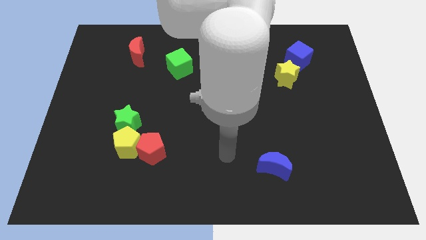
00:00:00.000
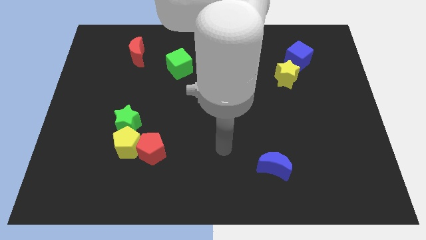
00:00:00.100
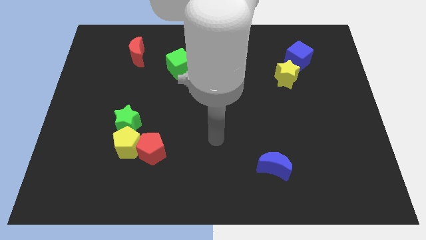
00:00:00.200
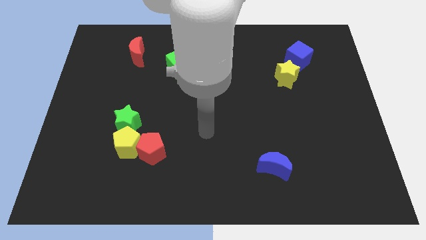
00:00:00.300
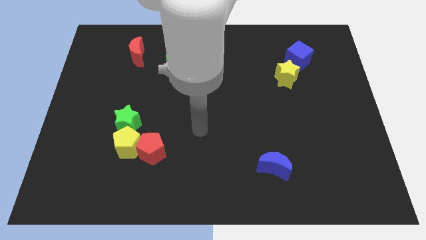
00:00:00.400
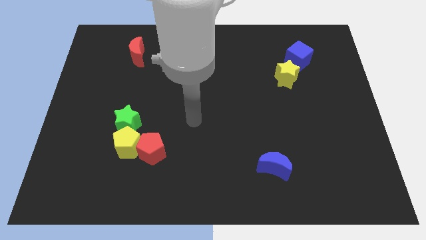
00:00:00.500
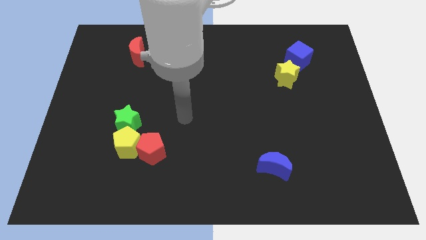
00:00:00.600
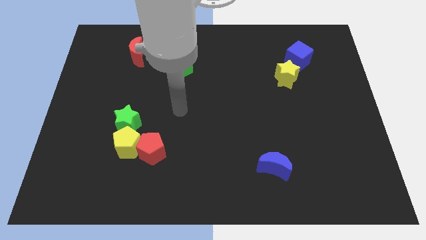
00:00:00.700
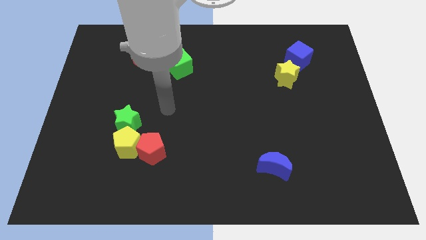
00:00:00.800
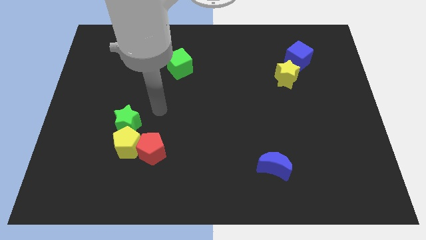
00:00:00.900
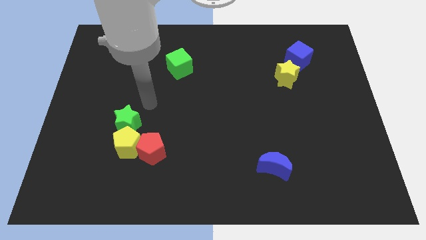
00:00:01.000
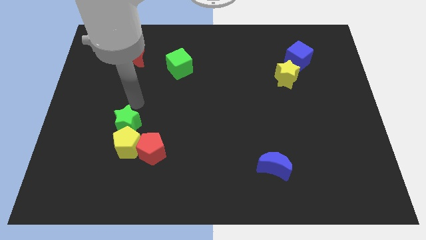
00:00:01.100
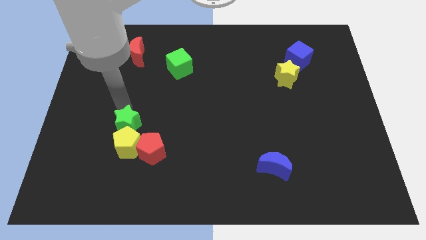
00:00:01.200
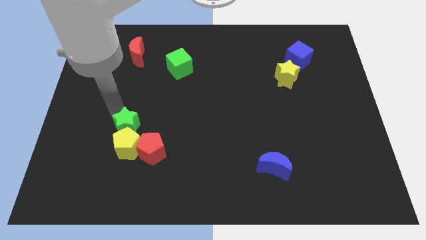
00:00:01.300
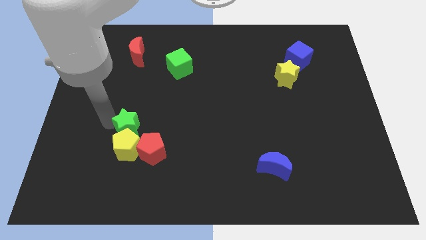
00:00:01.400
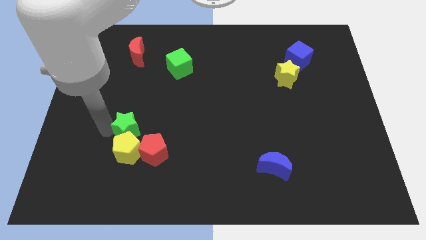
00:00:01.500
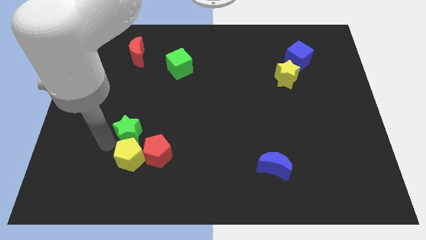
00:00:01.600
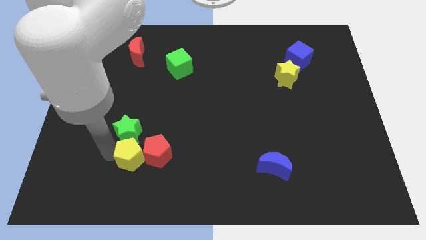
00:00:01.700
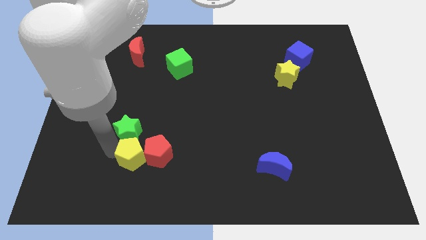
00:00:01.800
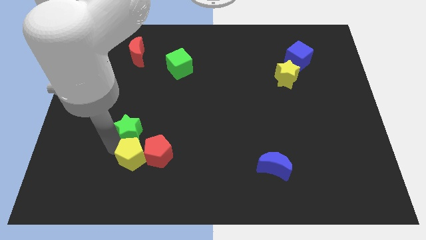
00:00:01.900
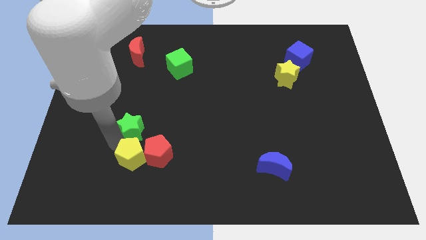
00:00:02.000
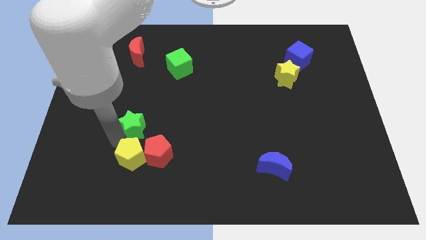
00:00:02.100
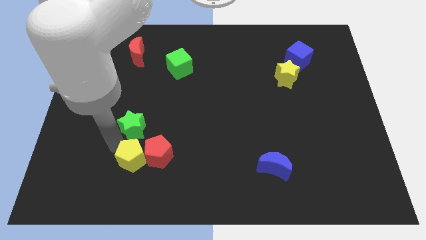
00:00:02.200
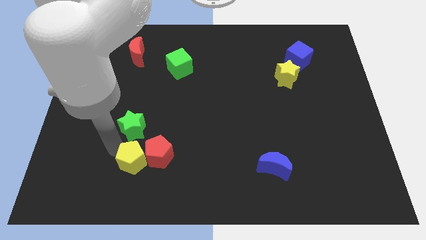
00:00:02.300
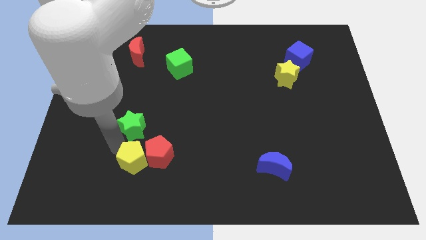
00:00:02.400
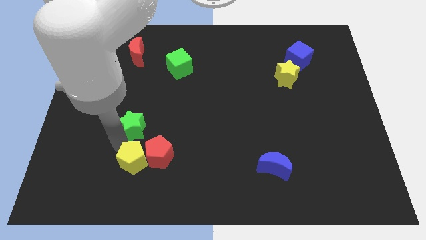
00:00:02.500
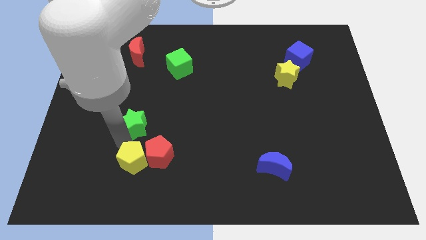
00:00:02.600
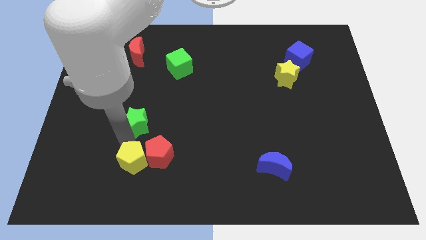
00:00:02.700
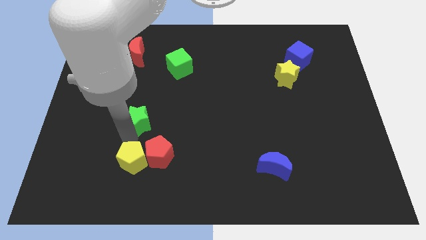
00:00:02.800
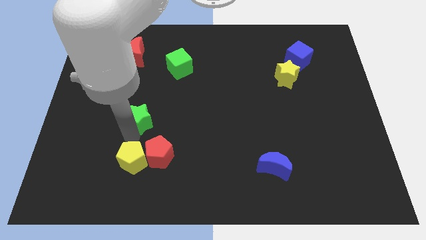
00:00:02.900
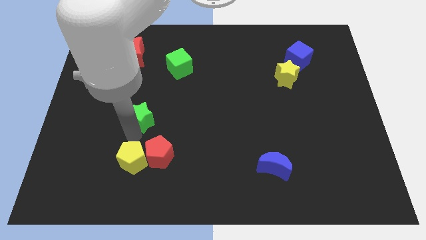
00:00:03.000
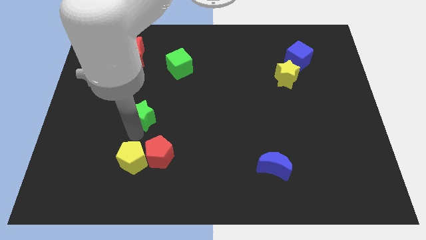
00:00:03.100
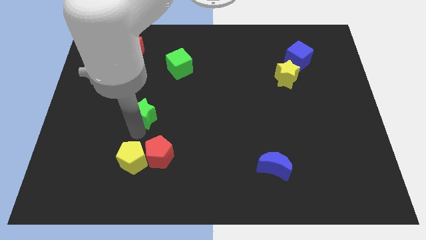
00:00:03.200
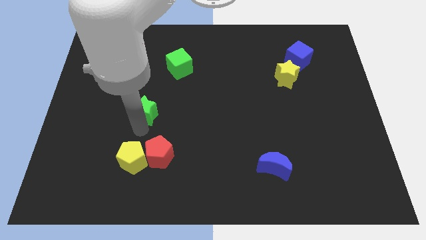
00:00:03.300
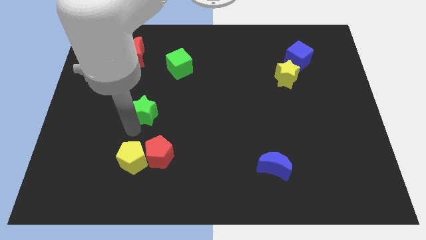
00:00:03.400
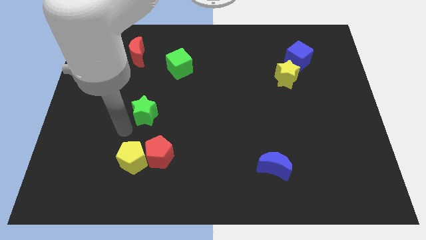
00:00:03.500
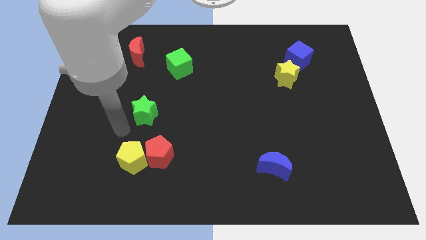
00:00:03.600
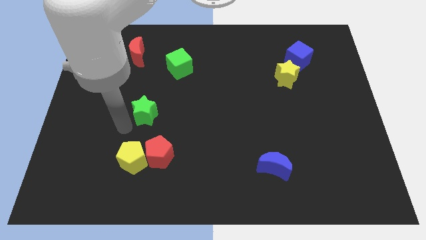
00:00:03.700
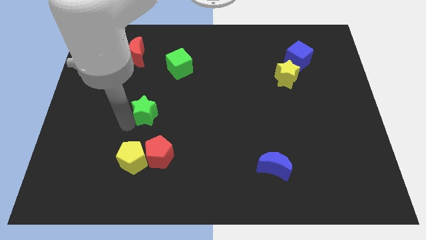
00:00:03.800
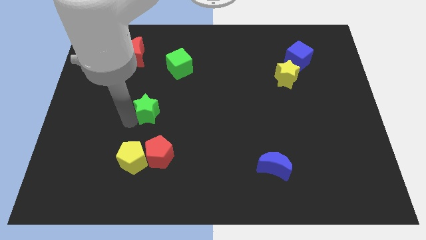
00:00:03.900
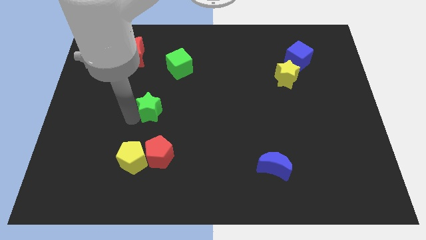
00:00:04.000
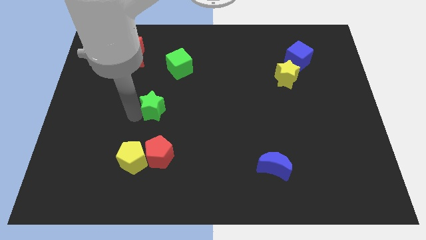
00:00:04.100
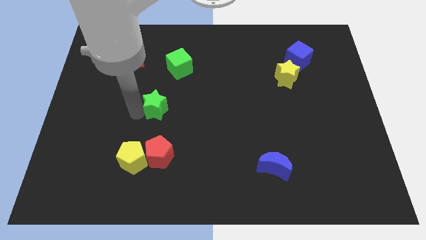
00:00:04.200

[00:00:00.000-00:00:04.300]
slightly slide the green star up and right diagonally

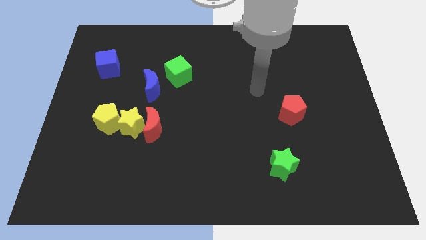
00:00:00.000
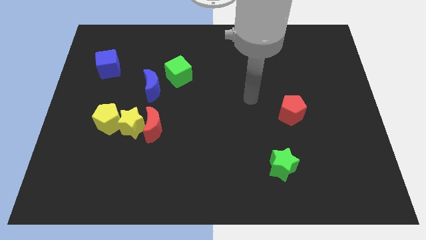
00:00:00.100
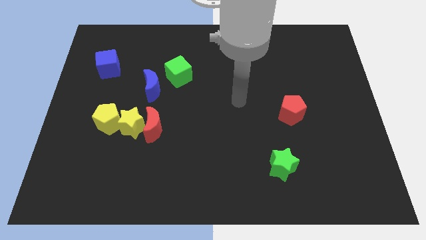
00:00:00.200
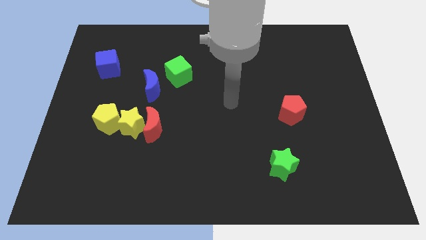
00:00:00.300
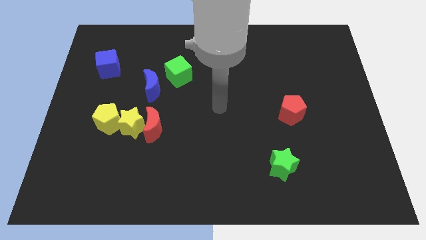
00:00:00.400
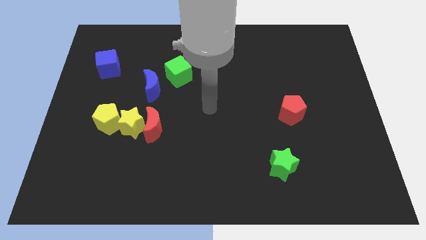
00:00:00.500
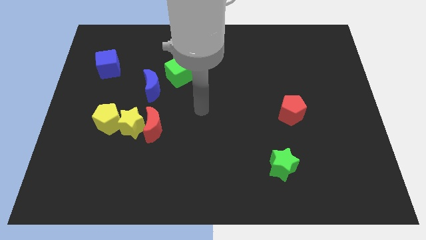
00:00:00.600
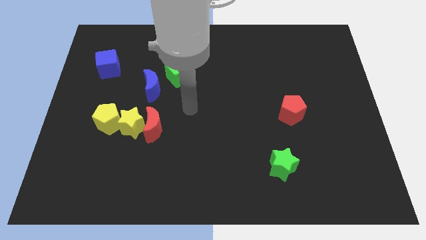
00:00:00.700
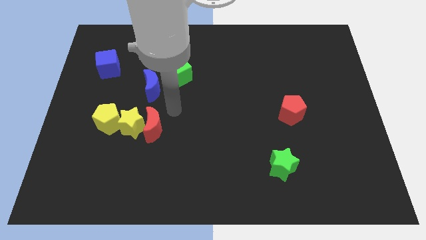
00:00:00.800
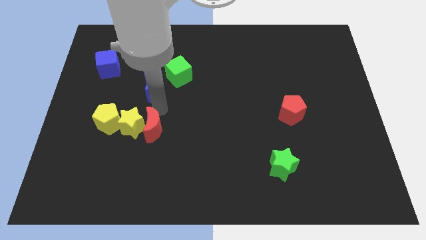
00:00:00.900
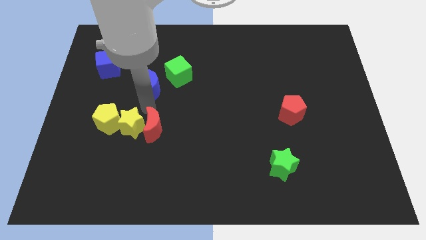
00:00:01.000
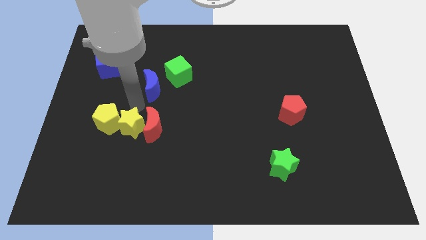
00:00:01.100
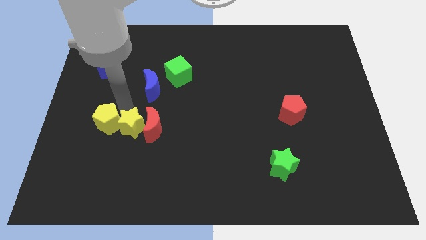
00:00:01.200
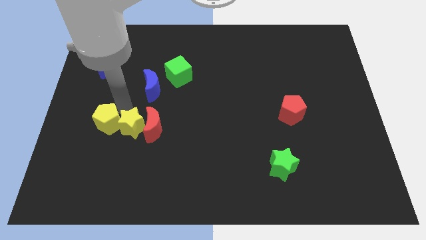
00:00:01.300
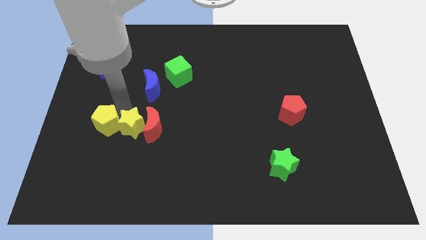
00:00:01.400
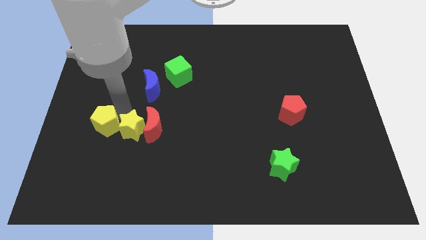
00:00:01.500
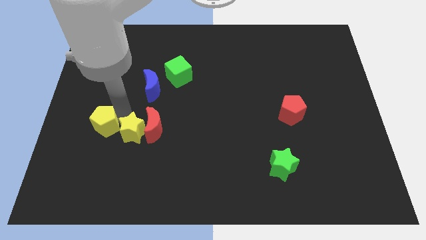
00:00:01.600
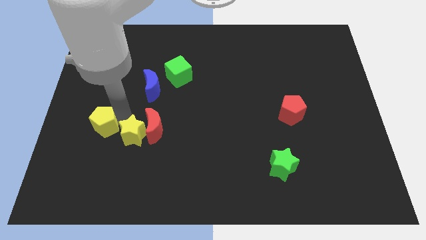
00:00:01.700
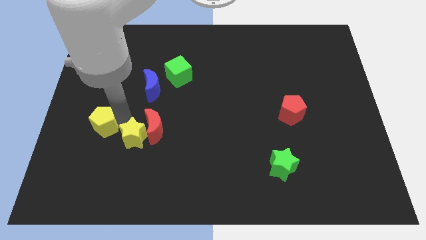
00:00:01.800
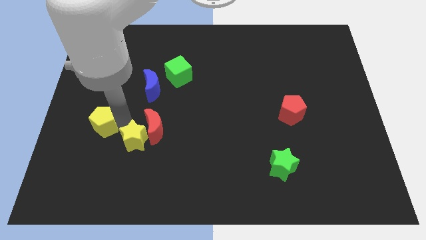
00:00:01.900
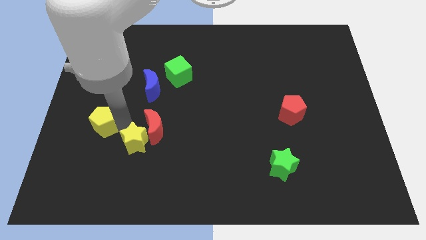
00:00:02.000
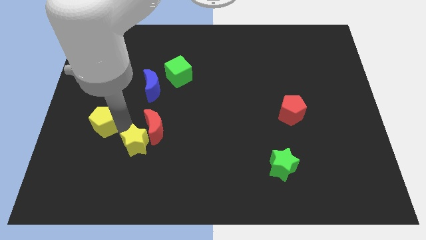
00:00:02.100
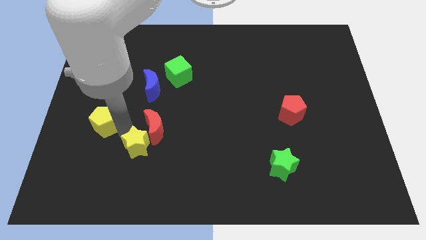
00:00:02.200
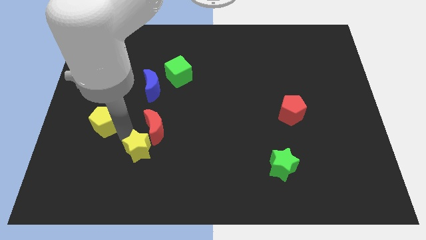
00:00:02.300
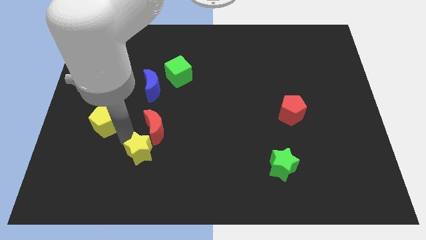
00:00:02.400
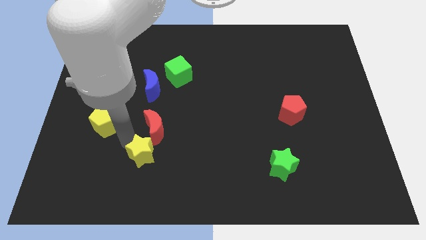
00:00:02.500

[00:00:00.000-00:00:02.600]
move the yellow star downwards and to the right diagonally a bit

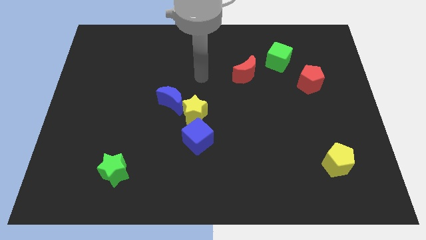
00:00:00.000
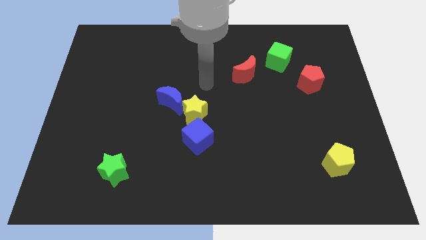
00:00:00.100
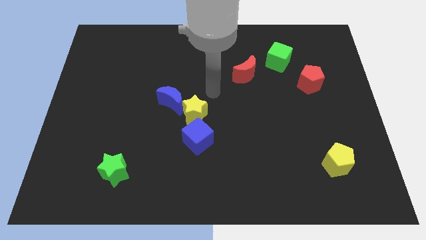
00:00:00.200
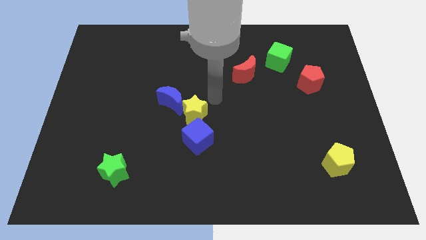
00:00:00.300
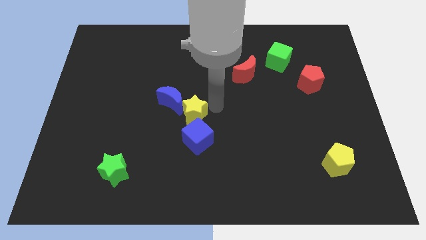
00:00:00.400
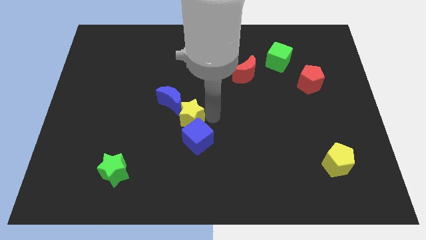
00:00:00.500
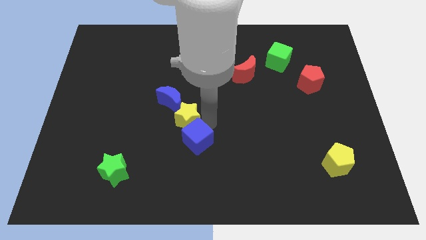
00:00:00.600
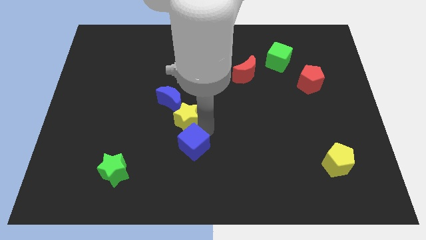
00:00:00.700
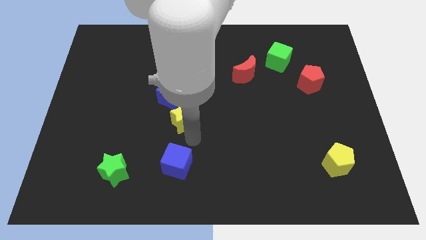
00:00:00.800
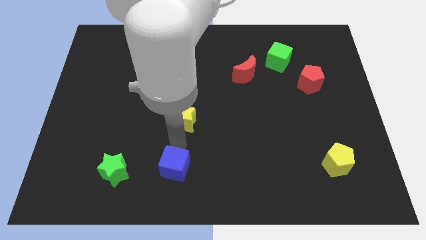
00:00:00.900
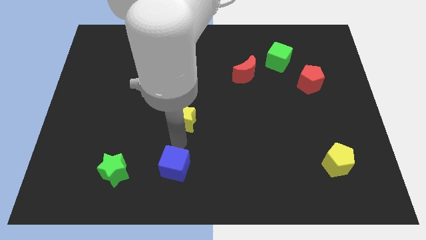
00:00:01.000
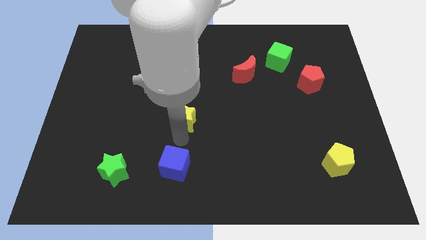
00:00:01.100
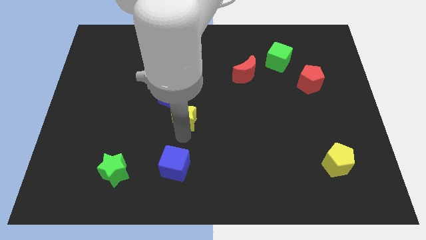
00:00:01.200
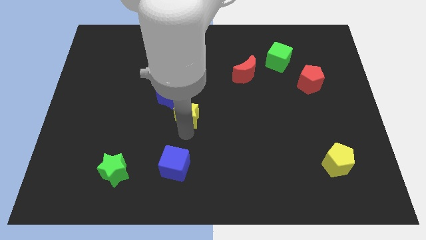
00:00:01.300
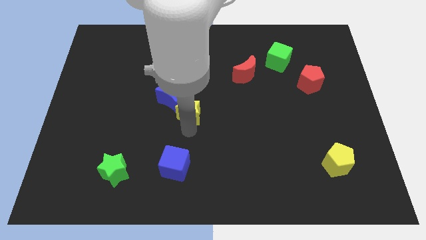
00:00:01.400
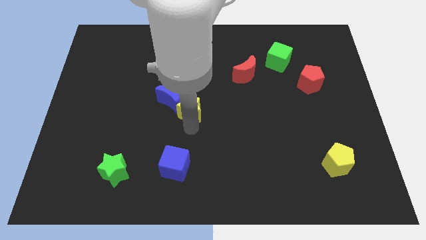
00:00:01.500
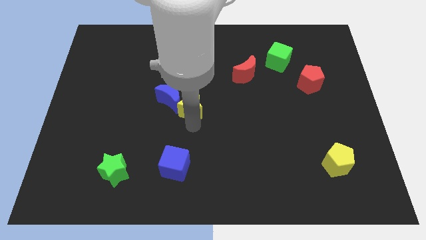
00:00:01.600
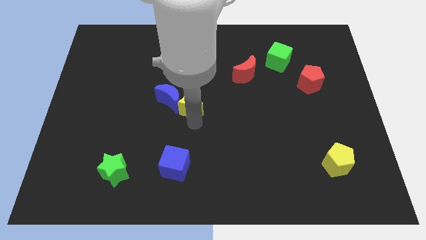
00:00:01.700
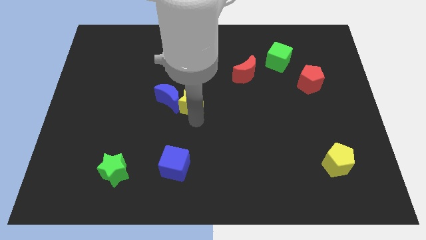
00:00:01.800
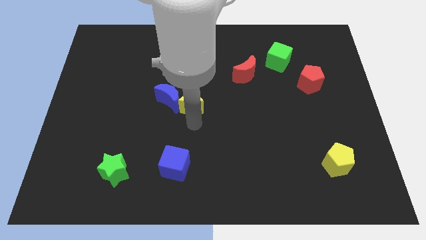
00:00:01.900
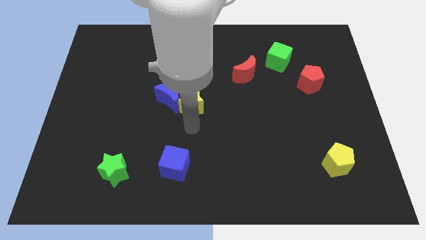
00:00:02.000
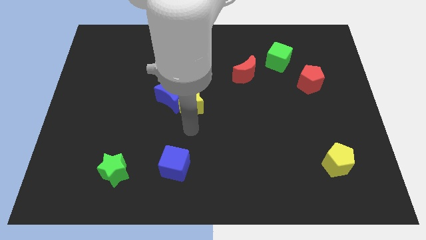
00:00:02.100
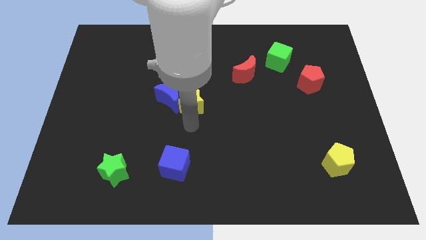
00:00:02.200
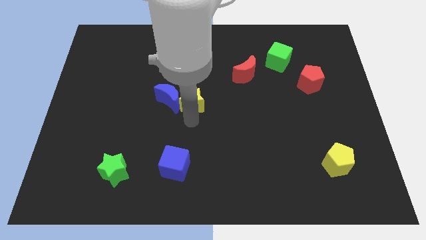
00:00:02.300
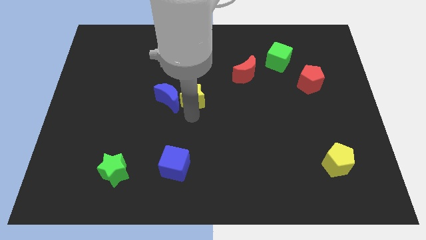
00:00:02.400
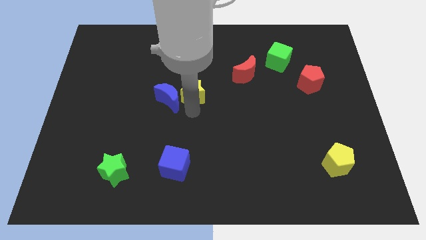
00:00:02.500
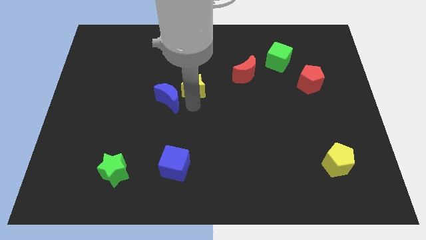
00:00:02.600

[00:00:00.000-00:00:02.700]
slightly push the yellow star upwards
